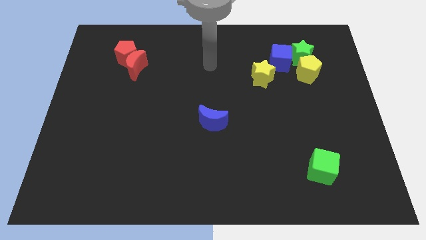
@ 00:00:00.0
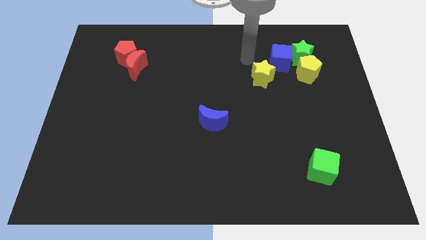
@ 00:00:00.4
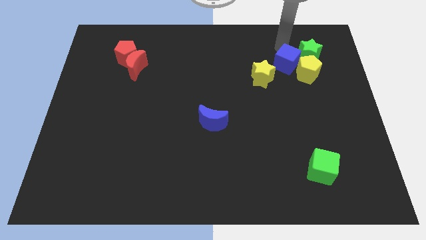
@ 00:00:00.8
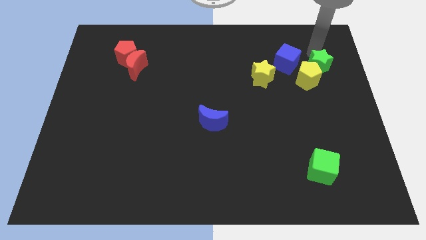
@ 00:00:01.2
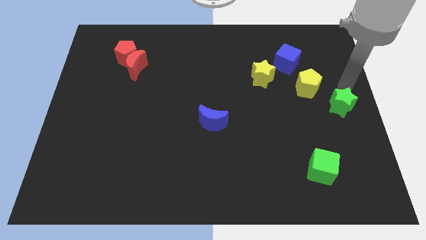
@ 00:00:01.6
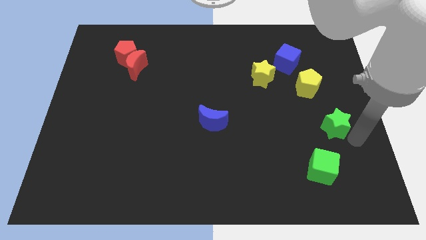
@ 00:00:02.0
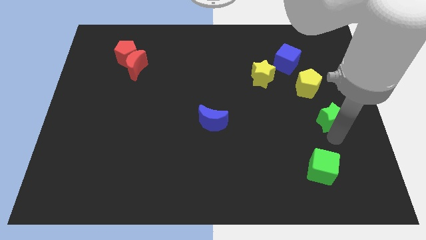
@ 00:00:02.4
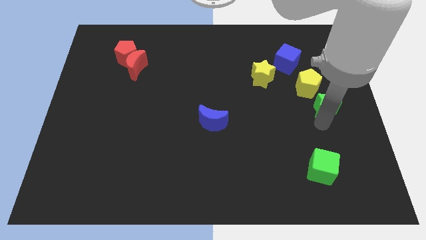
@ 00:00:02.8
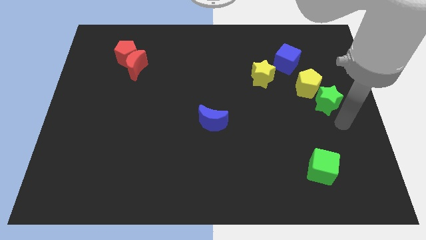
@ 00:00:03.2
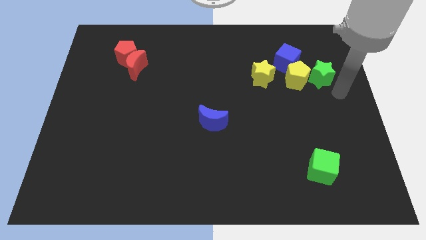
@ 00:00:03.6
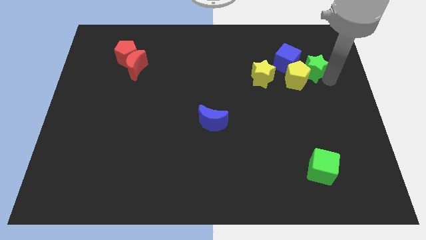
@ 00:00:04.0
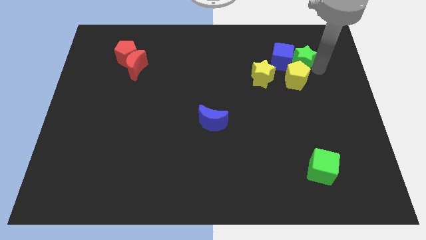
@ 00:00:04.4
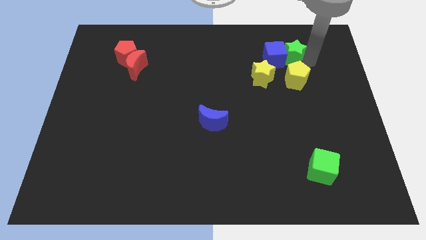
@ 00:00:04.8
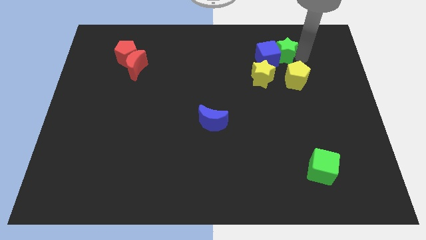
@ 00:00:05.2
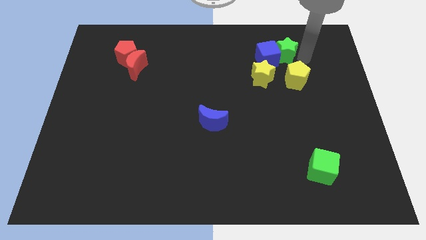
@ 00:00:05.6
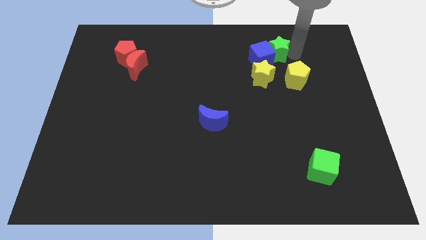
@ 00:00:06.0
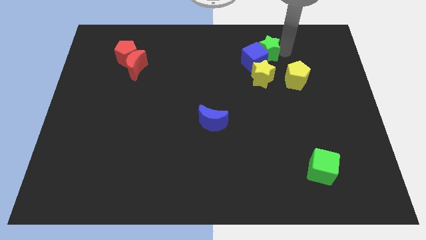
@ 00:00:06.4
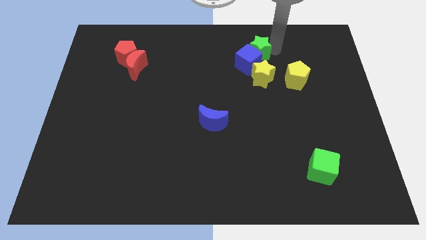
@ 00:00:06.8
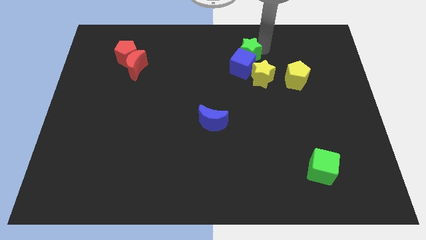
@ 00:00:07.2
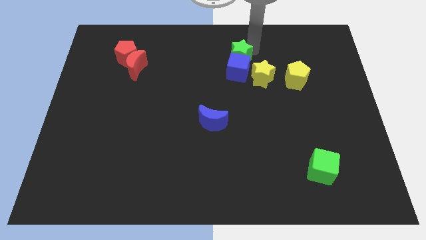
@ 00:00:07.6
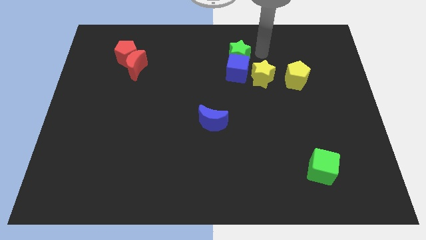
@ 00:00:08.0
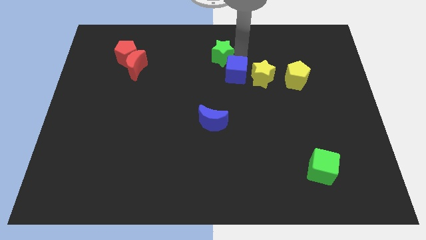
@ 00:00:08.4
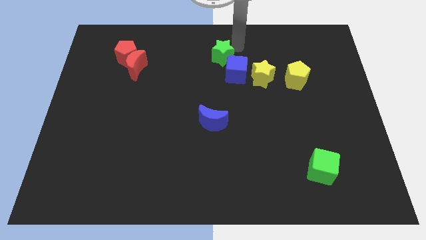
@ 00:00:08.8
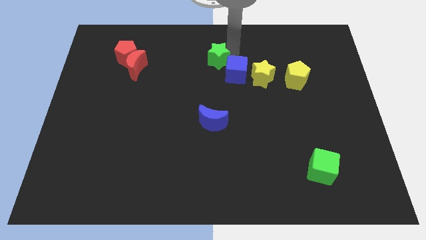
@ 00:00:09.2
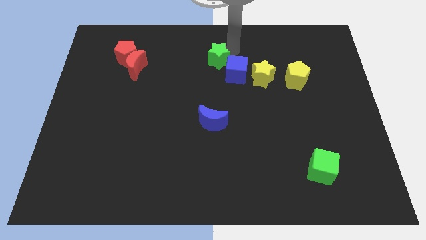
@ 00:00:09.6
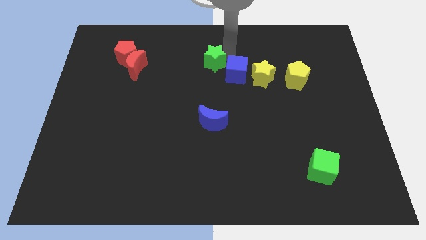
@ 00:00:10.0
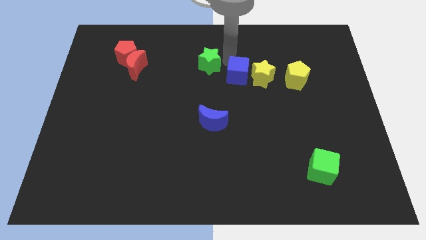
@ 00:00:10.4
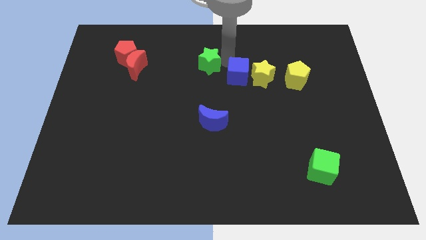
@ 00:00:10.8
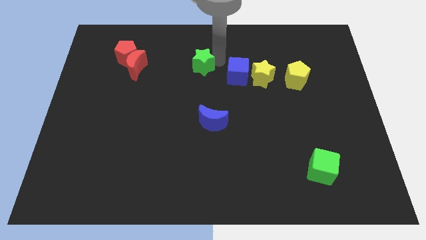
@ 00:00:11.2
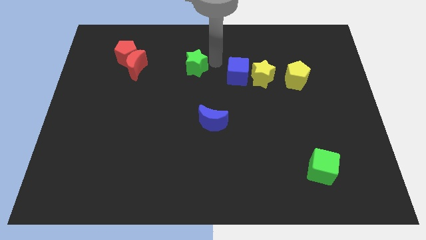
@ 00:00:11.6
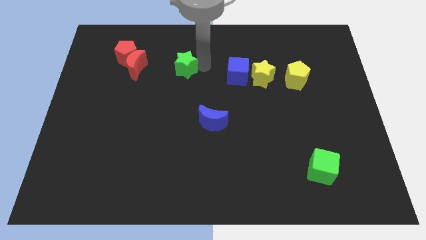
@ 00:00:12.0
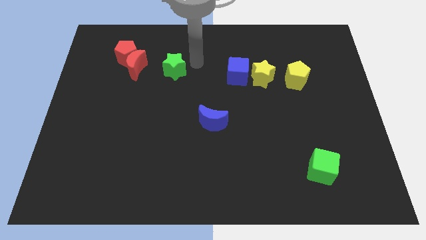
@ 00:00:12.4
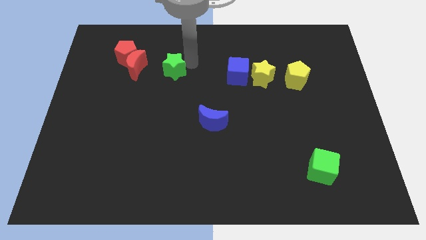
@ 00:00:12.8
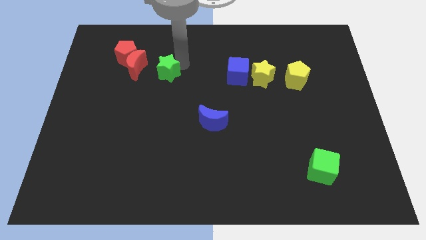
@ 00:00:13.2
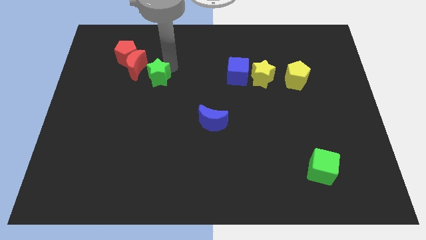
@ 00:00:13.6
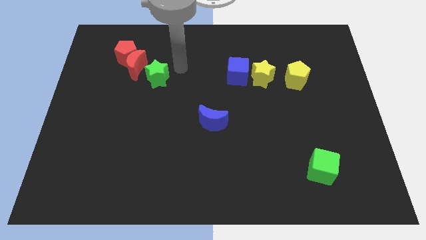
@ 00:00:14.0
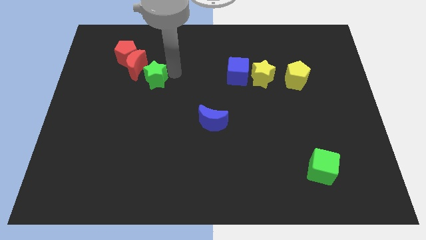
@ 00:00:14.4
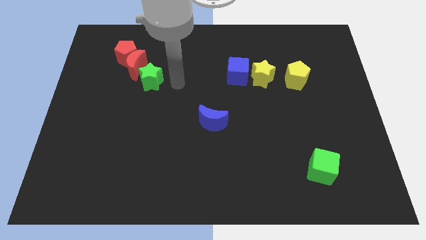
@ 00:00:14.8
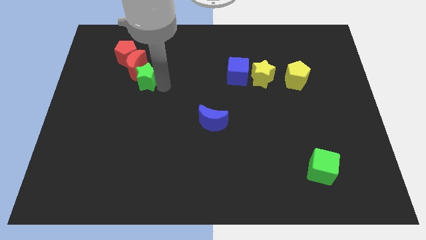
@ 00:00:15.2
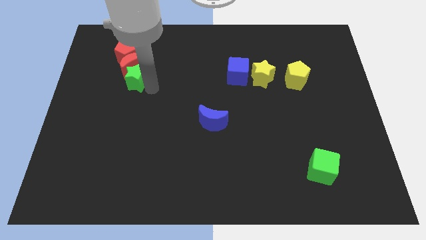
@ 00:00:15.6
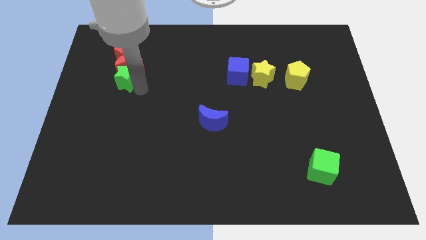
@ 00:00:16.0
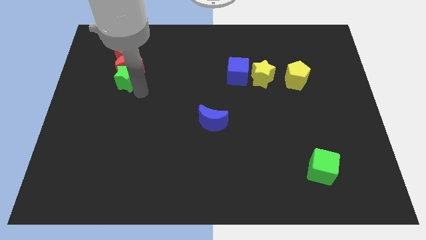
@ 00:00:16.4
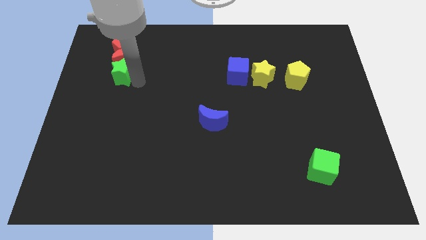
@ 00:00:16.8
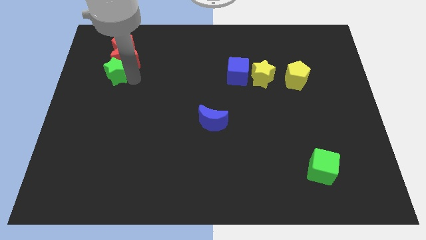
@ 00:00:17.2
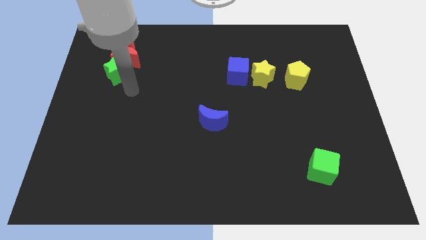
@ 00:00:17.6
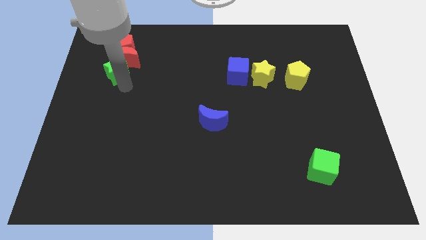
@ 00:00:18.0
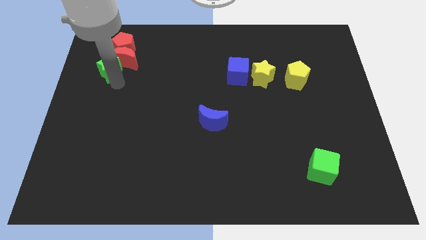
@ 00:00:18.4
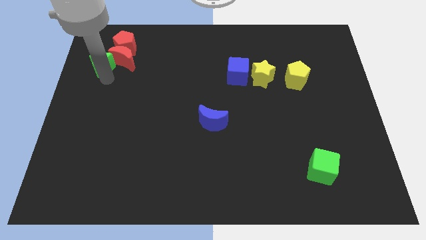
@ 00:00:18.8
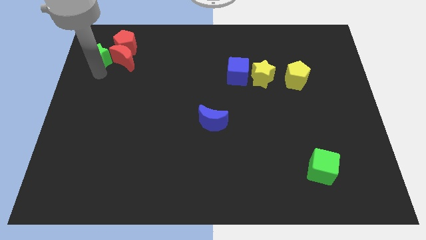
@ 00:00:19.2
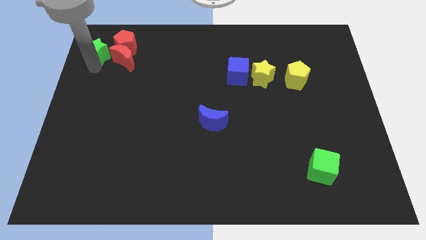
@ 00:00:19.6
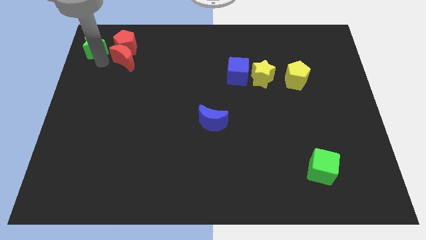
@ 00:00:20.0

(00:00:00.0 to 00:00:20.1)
move the green star to the top left of the board

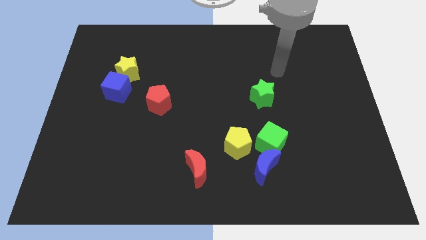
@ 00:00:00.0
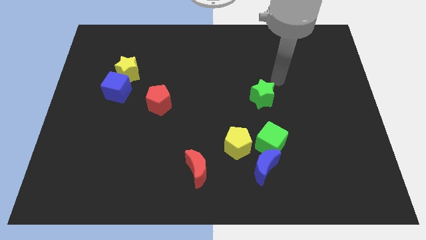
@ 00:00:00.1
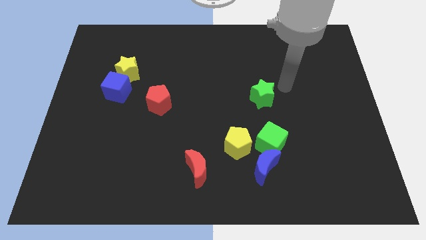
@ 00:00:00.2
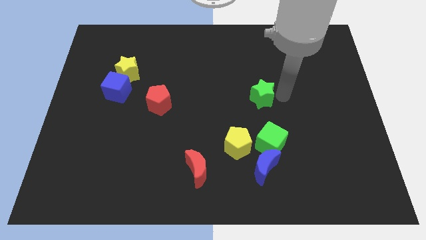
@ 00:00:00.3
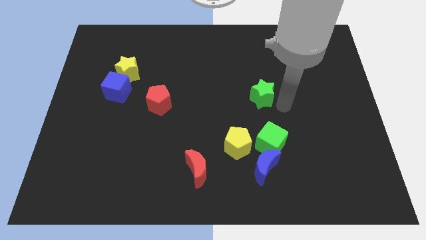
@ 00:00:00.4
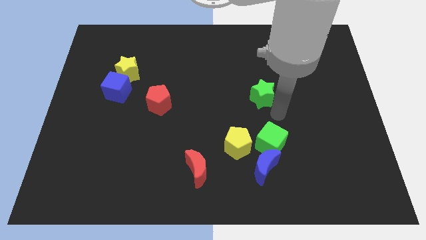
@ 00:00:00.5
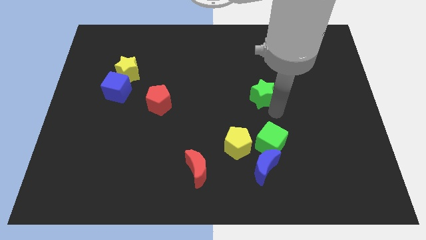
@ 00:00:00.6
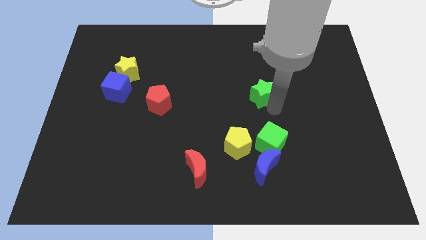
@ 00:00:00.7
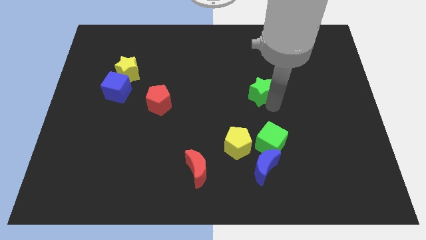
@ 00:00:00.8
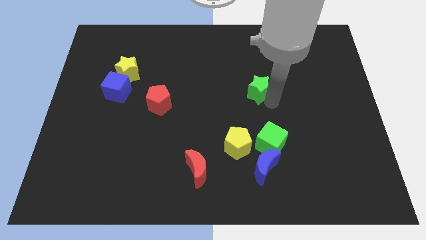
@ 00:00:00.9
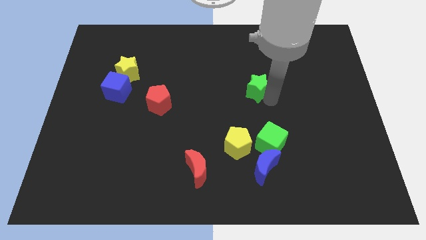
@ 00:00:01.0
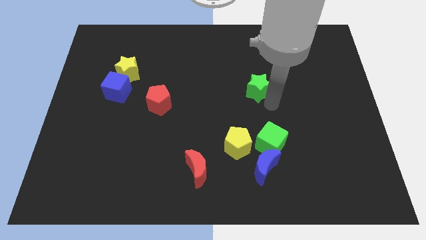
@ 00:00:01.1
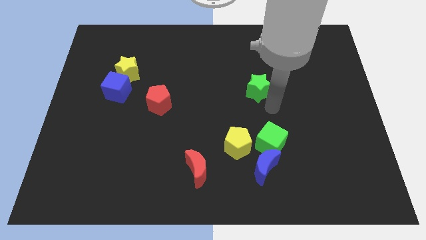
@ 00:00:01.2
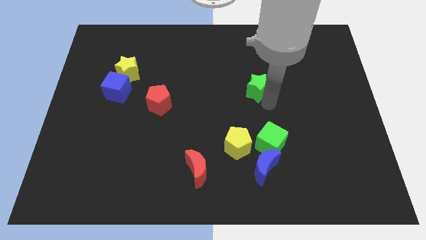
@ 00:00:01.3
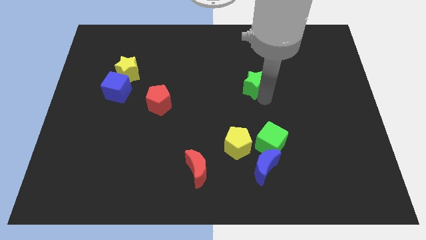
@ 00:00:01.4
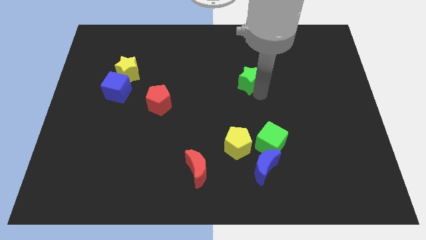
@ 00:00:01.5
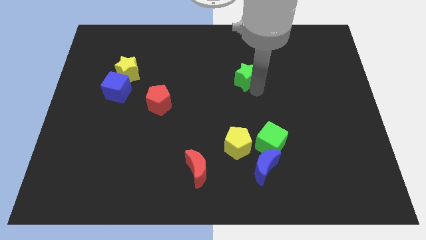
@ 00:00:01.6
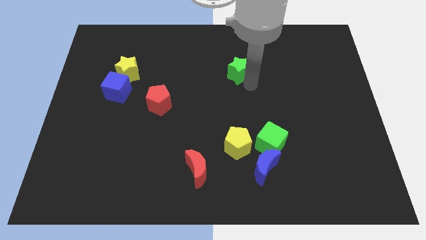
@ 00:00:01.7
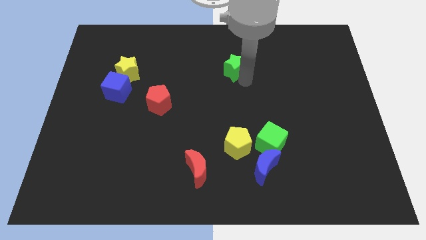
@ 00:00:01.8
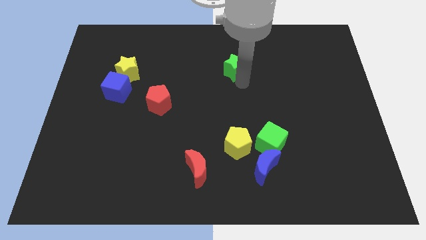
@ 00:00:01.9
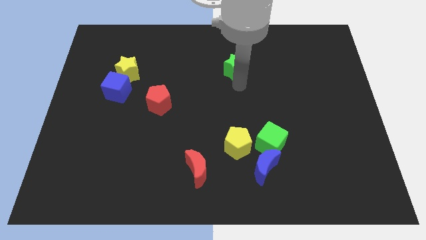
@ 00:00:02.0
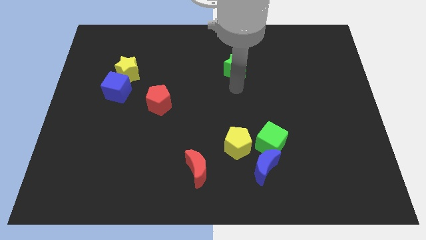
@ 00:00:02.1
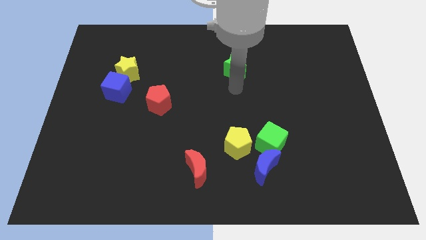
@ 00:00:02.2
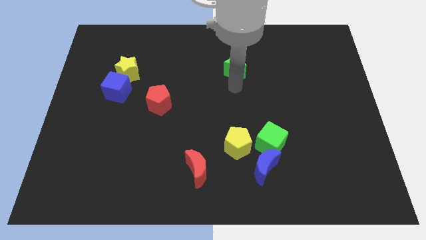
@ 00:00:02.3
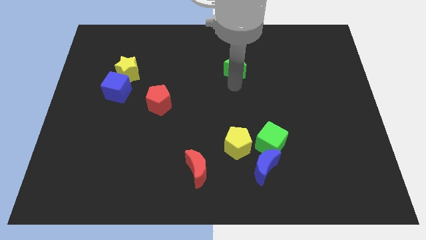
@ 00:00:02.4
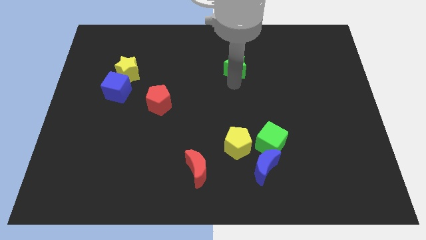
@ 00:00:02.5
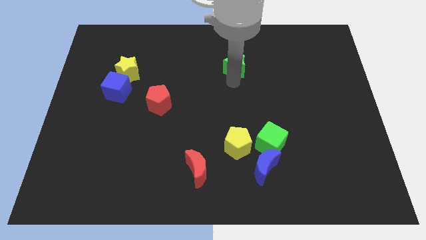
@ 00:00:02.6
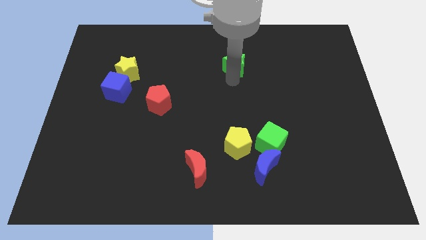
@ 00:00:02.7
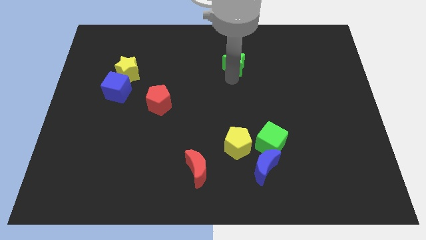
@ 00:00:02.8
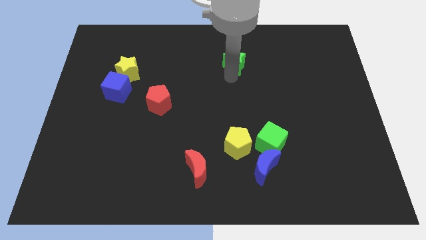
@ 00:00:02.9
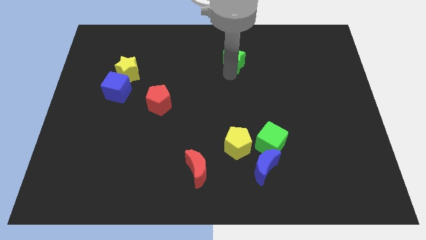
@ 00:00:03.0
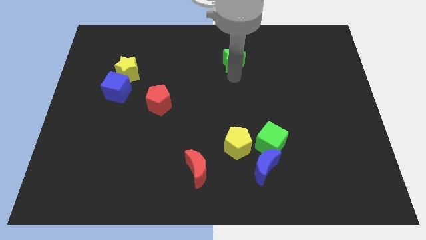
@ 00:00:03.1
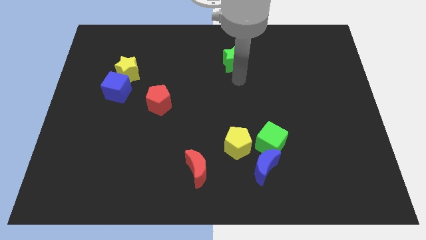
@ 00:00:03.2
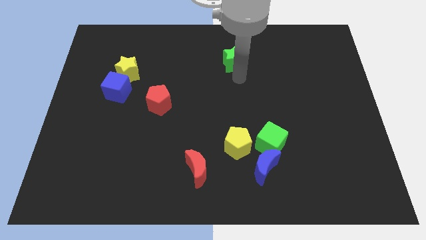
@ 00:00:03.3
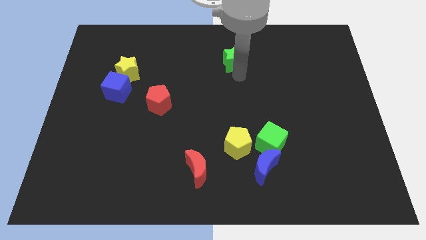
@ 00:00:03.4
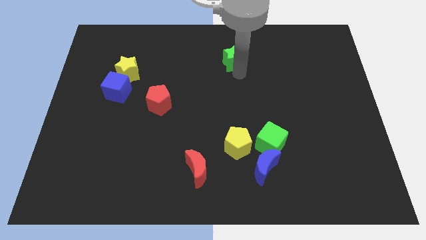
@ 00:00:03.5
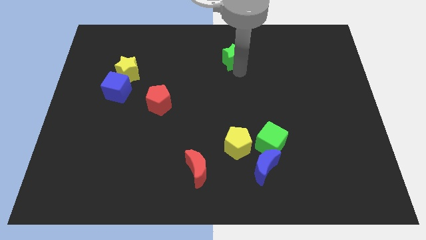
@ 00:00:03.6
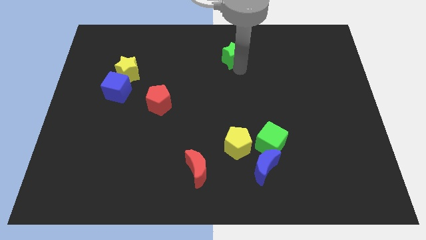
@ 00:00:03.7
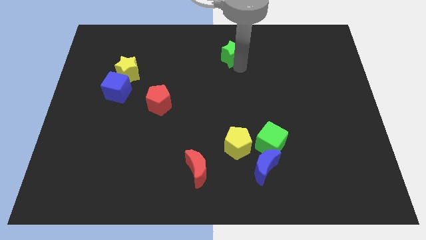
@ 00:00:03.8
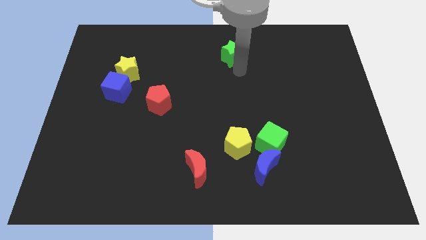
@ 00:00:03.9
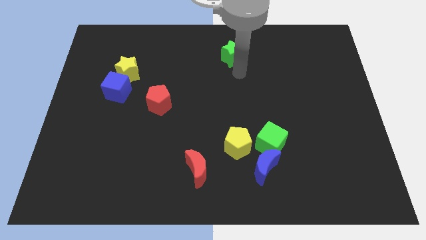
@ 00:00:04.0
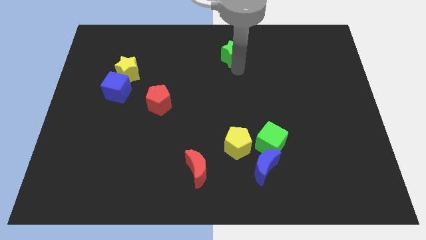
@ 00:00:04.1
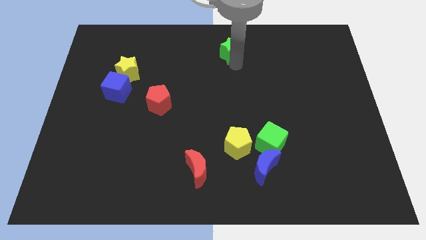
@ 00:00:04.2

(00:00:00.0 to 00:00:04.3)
move the green star to the towards your base
